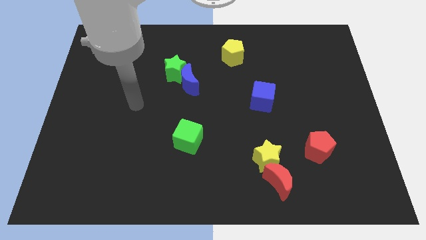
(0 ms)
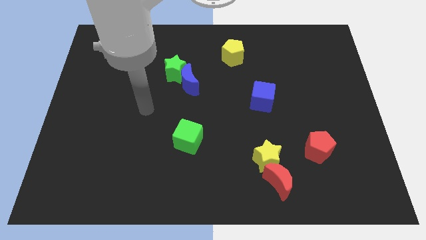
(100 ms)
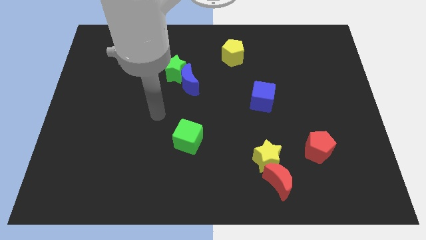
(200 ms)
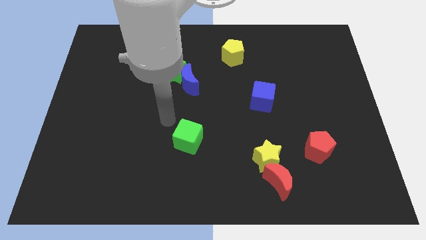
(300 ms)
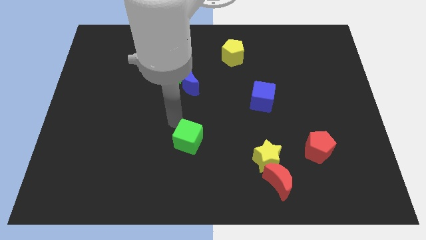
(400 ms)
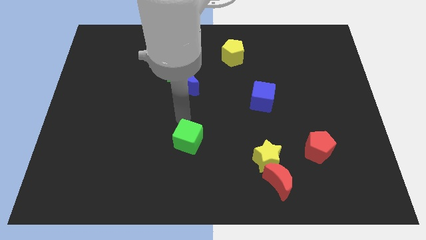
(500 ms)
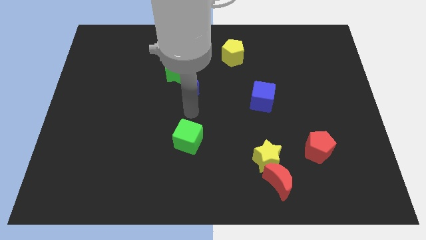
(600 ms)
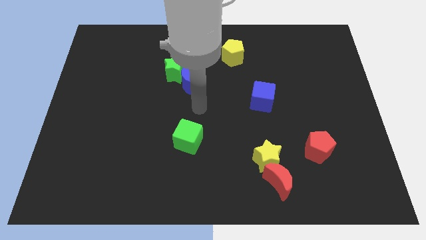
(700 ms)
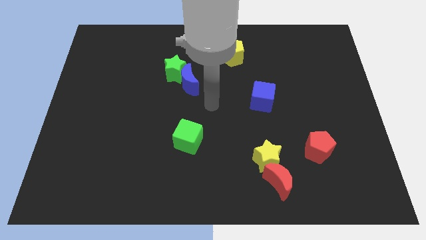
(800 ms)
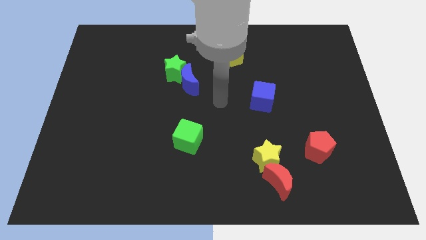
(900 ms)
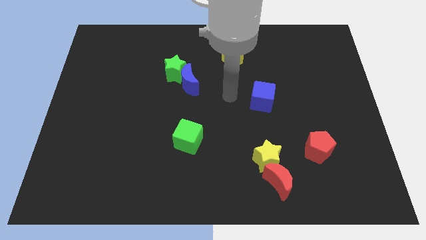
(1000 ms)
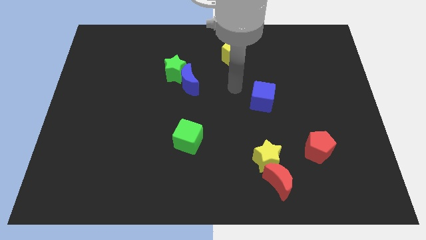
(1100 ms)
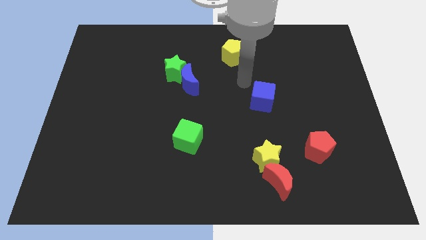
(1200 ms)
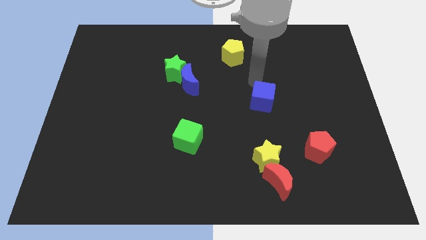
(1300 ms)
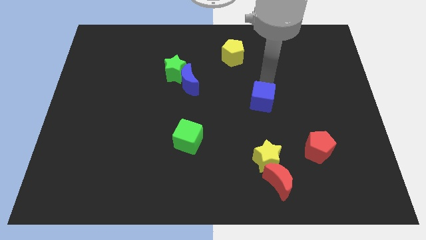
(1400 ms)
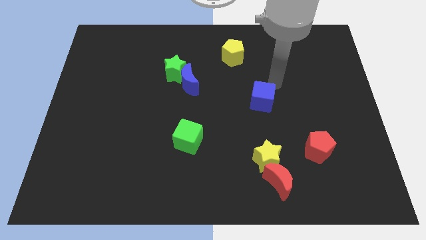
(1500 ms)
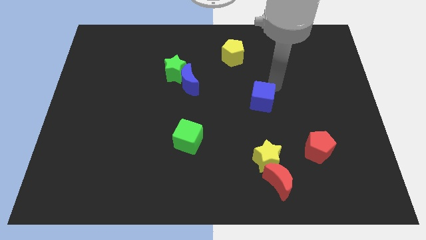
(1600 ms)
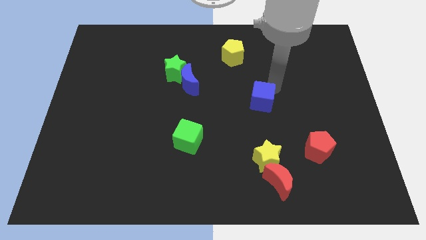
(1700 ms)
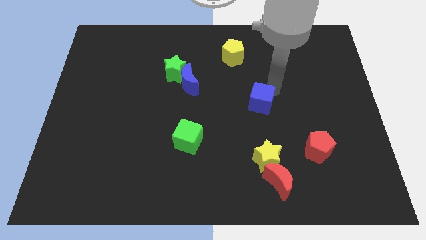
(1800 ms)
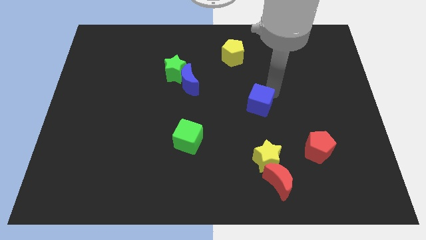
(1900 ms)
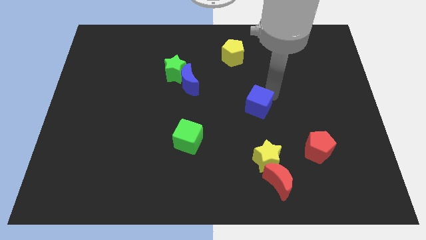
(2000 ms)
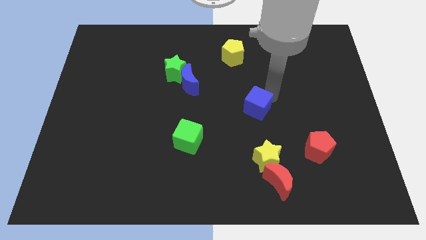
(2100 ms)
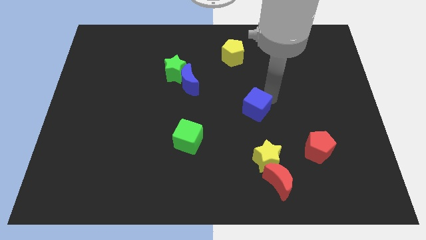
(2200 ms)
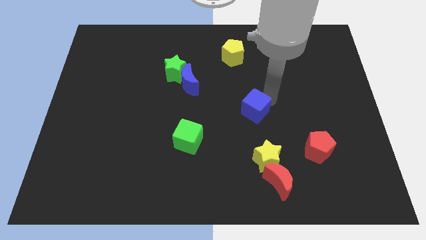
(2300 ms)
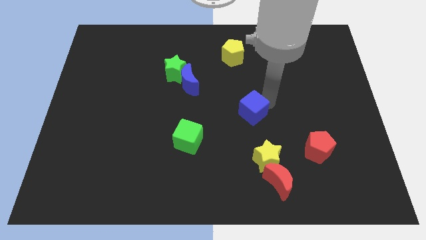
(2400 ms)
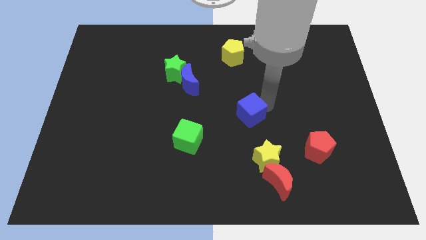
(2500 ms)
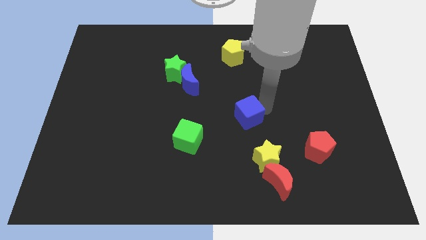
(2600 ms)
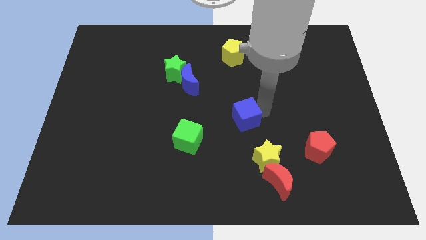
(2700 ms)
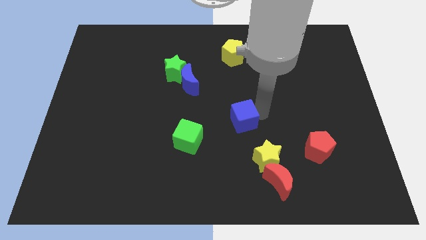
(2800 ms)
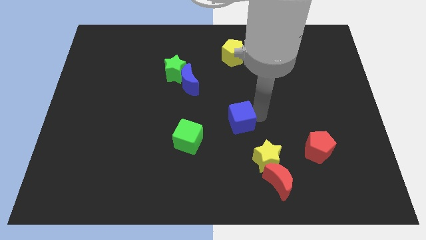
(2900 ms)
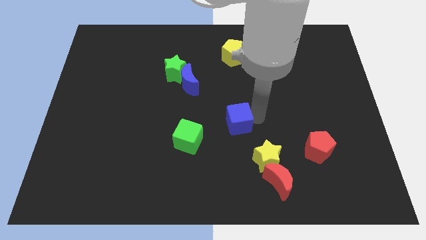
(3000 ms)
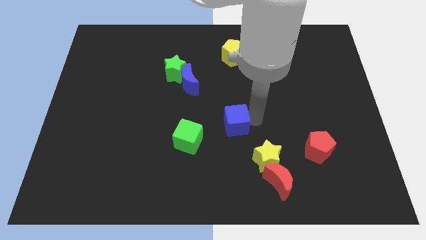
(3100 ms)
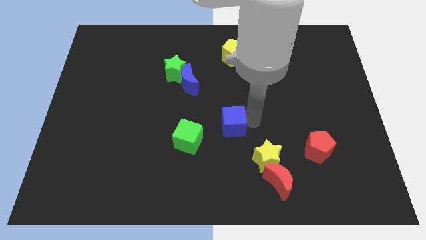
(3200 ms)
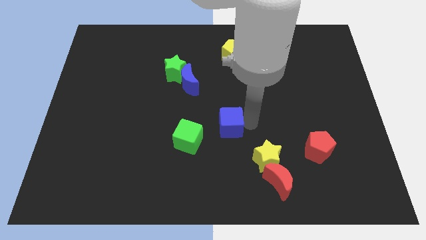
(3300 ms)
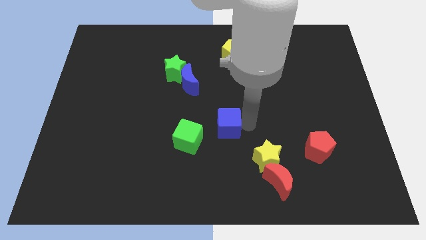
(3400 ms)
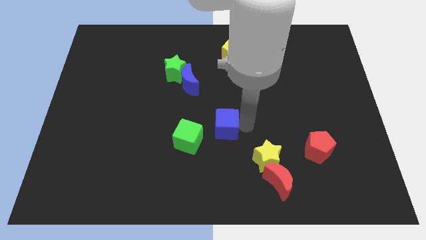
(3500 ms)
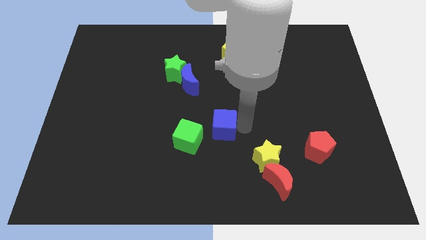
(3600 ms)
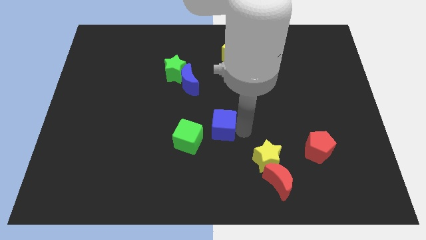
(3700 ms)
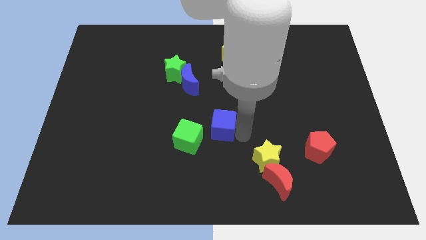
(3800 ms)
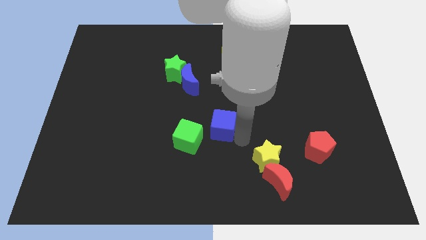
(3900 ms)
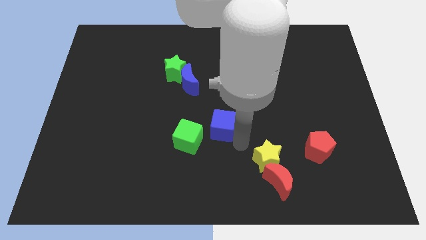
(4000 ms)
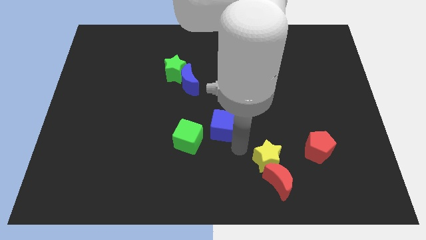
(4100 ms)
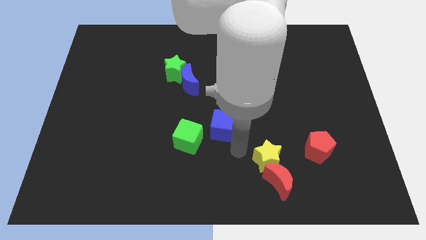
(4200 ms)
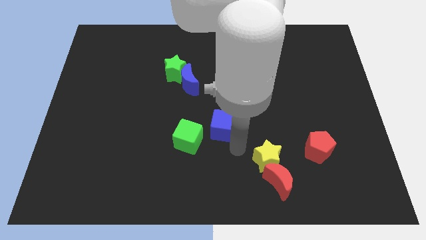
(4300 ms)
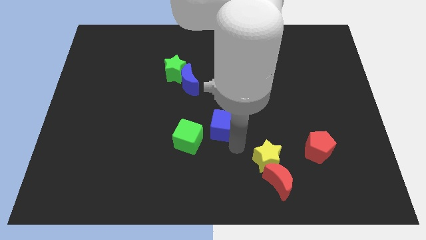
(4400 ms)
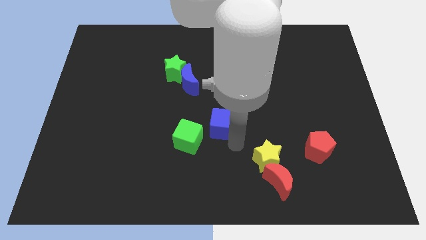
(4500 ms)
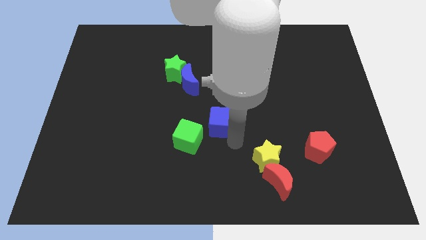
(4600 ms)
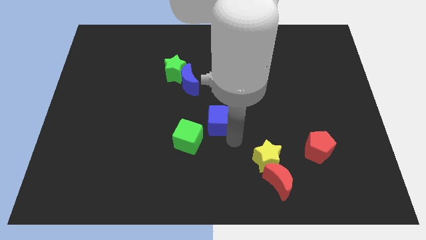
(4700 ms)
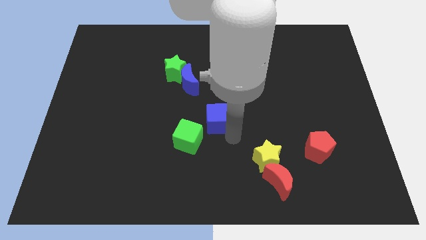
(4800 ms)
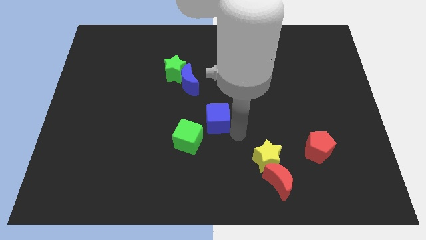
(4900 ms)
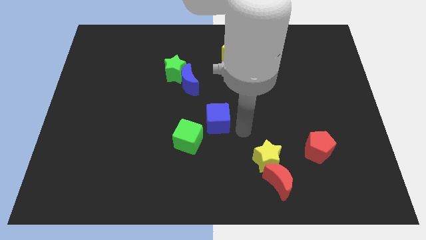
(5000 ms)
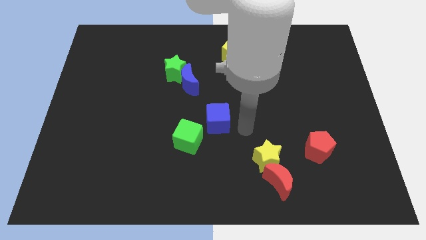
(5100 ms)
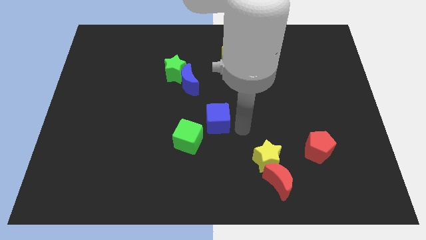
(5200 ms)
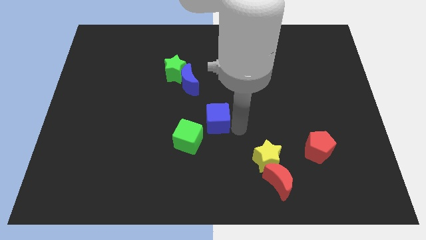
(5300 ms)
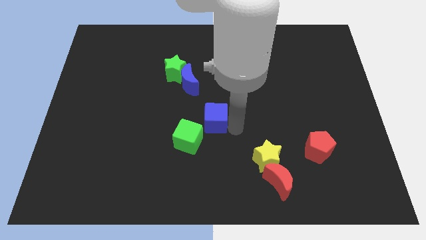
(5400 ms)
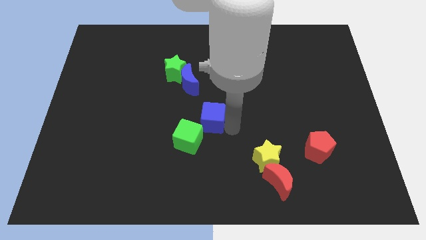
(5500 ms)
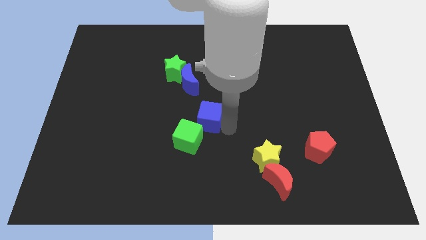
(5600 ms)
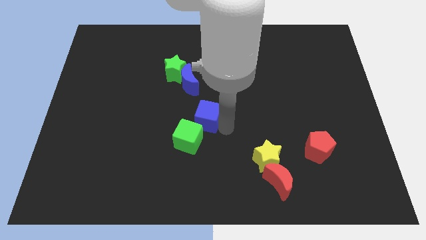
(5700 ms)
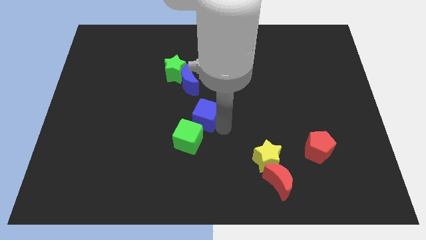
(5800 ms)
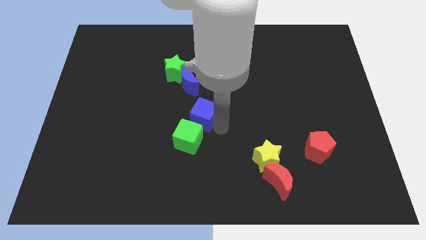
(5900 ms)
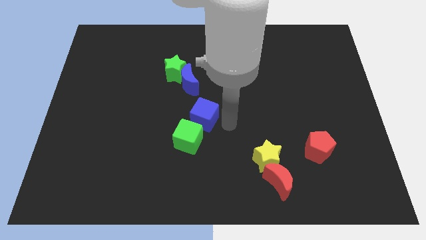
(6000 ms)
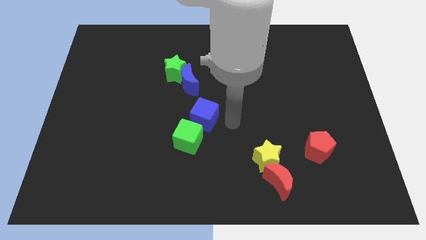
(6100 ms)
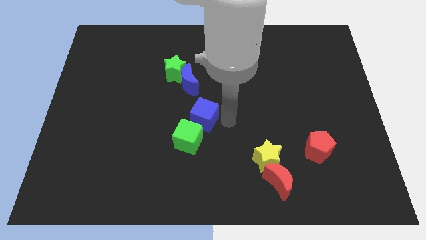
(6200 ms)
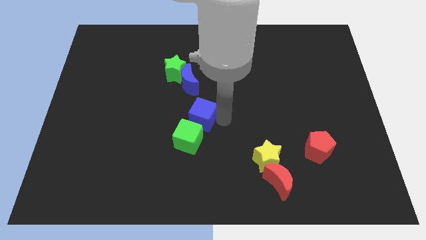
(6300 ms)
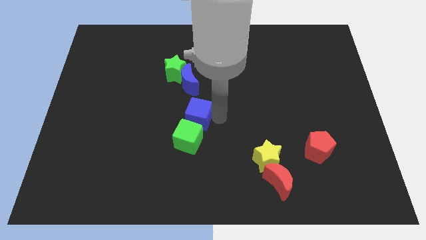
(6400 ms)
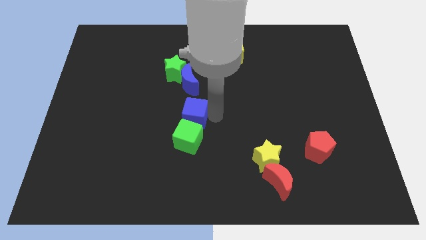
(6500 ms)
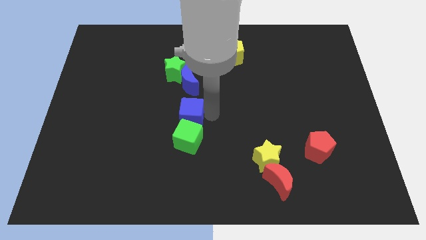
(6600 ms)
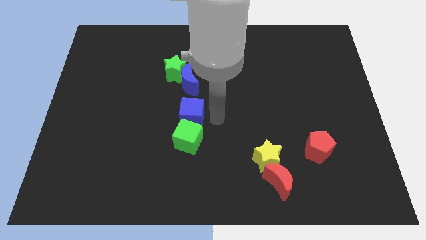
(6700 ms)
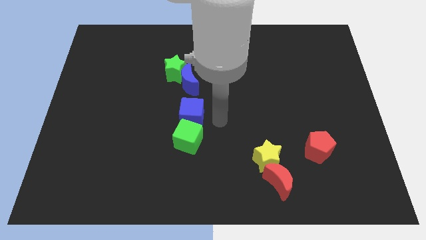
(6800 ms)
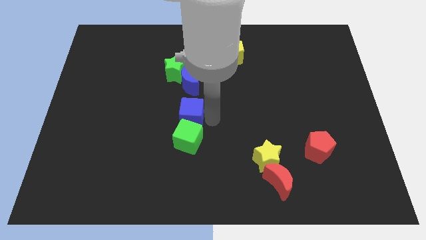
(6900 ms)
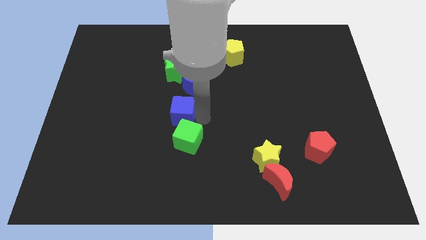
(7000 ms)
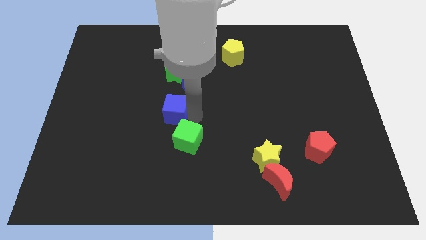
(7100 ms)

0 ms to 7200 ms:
slide the blue cube left

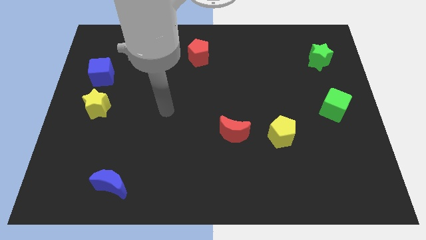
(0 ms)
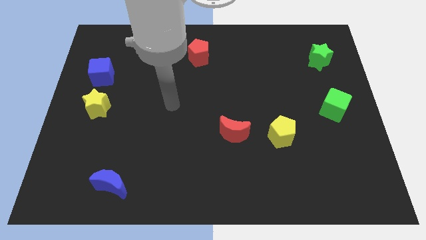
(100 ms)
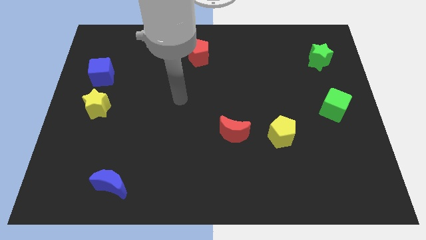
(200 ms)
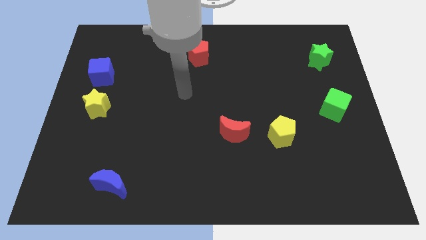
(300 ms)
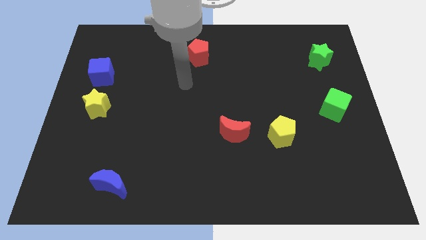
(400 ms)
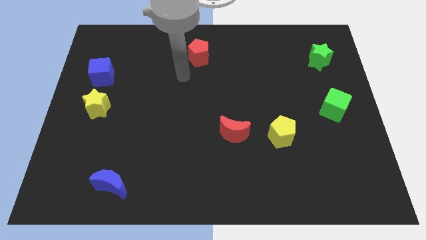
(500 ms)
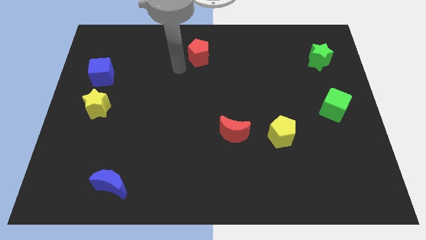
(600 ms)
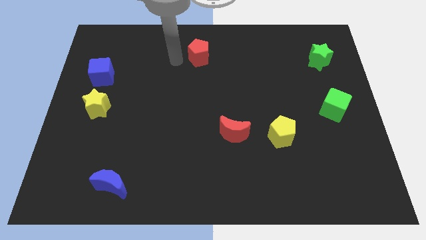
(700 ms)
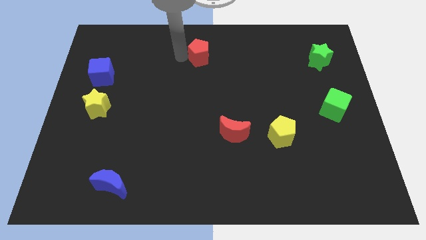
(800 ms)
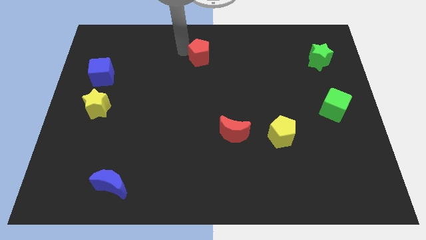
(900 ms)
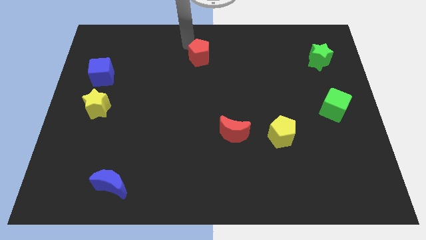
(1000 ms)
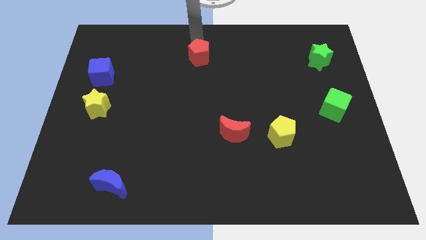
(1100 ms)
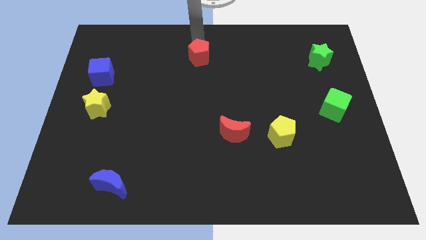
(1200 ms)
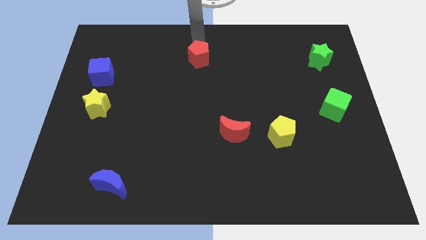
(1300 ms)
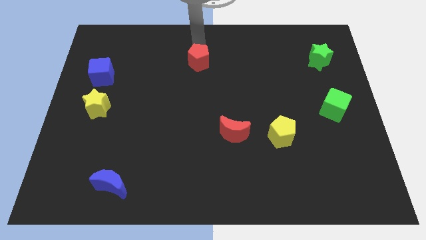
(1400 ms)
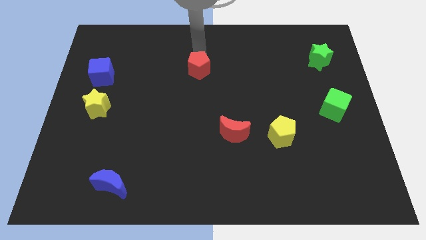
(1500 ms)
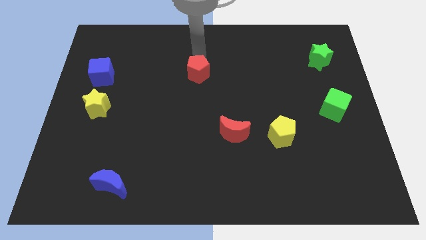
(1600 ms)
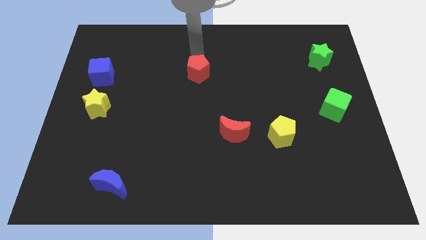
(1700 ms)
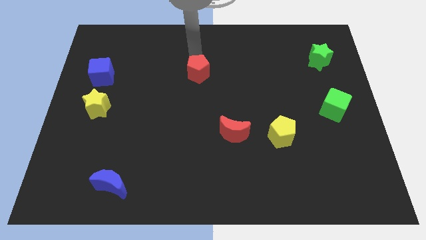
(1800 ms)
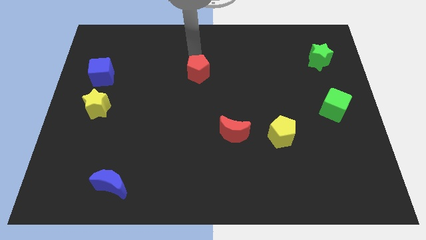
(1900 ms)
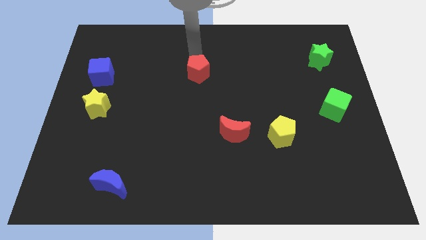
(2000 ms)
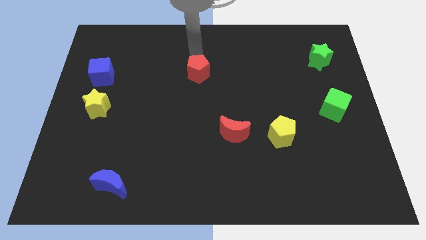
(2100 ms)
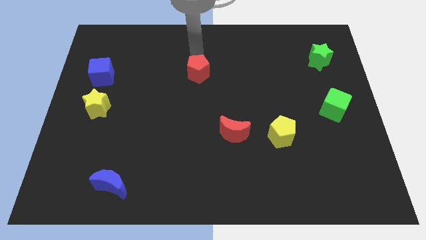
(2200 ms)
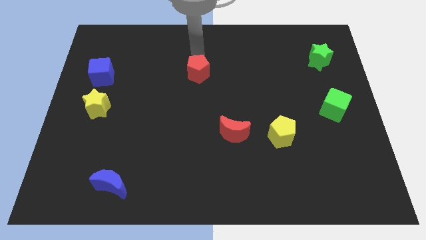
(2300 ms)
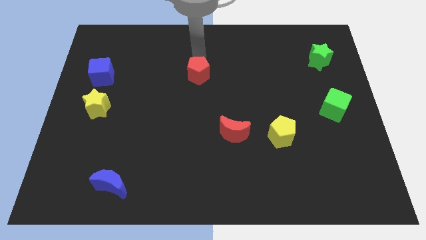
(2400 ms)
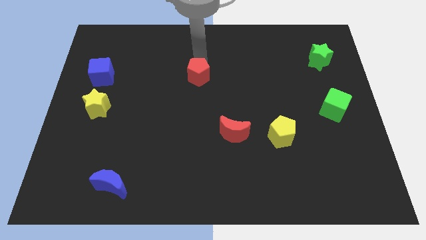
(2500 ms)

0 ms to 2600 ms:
move the red pentagon a little down
